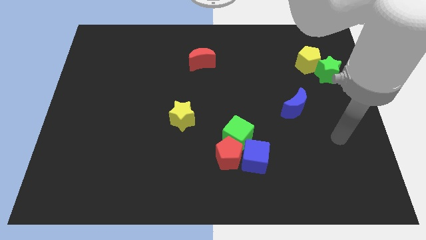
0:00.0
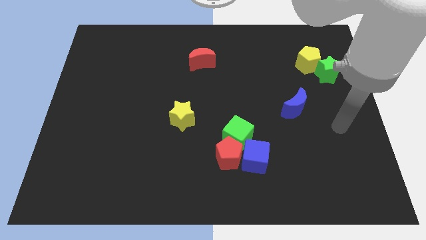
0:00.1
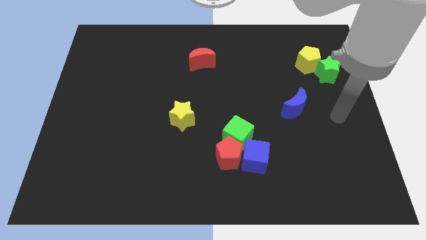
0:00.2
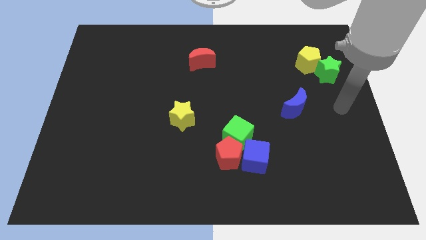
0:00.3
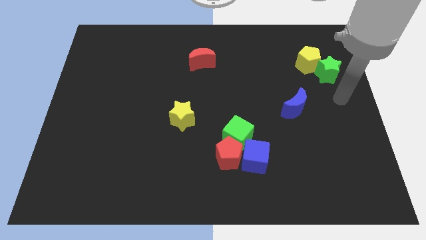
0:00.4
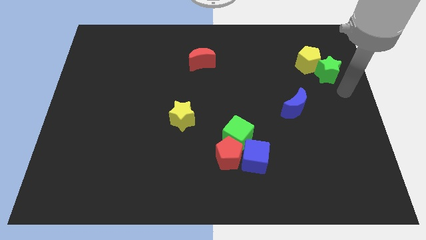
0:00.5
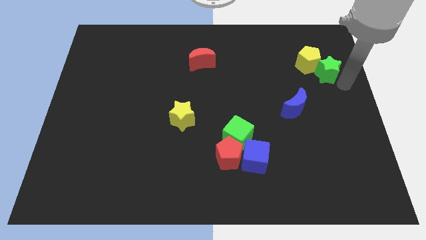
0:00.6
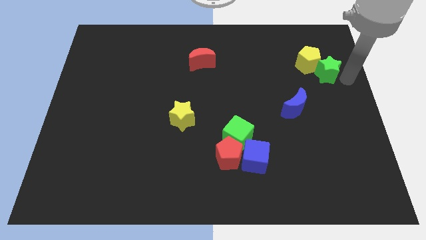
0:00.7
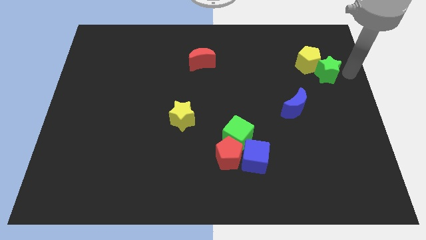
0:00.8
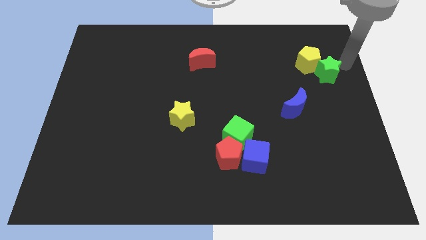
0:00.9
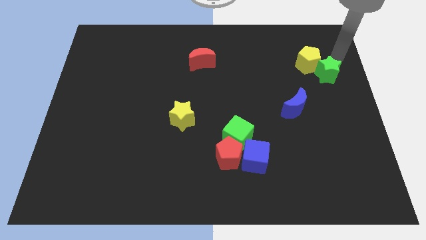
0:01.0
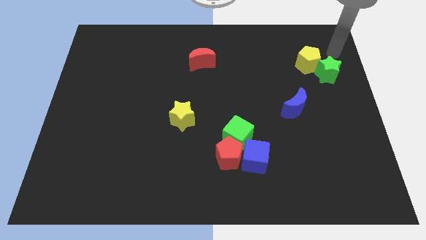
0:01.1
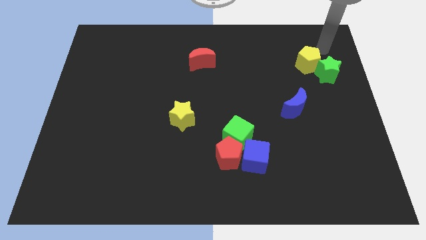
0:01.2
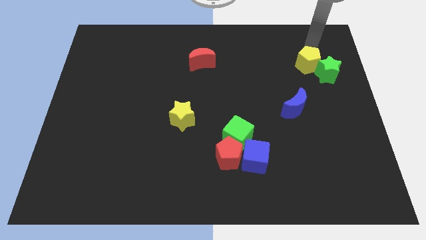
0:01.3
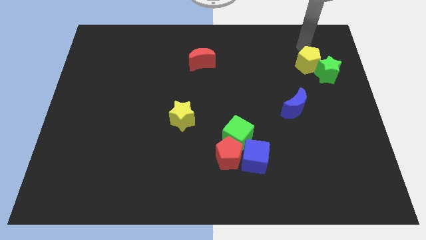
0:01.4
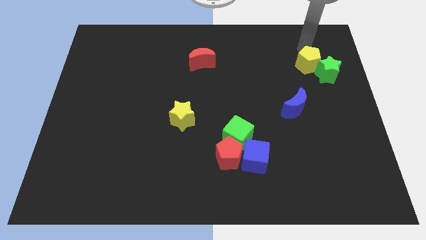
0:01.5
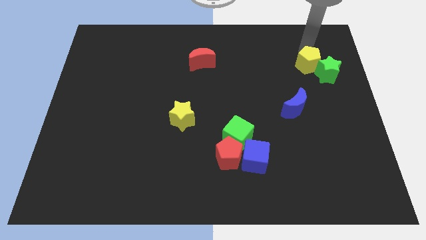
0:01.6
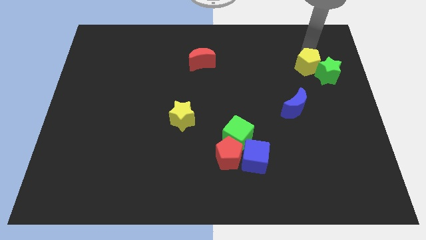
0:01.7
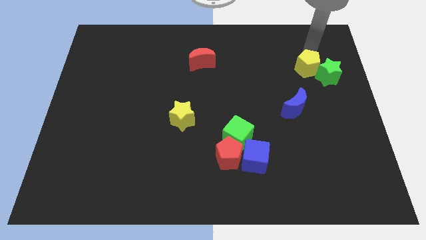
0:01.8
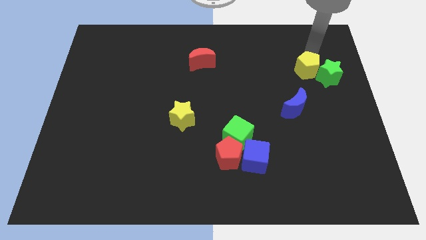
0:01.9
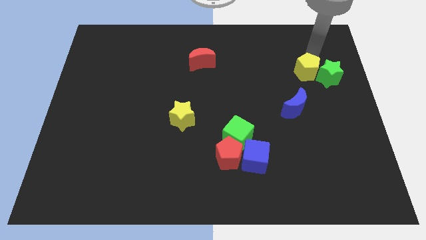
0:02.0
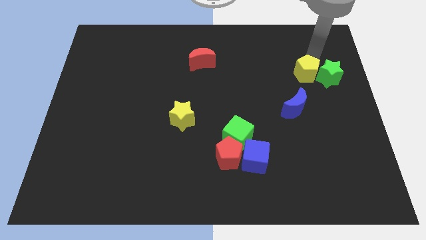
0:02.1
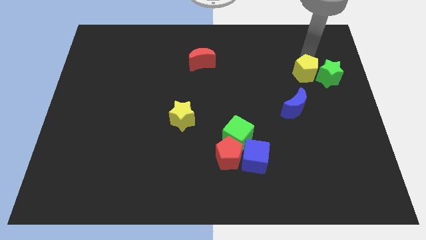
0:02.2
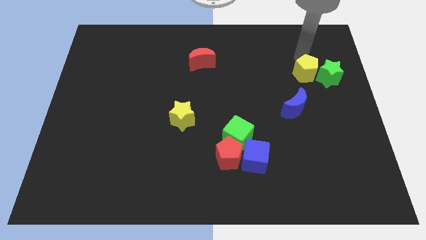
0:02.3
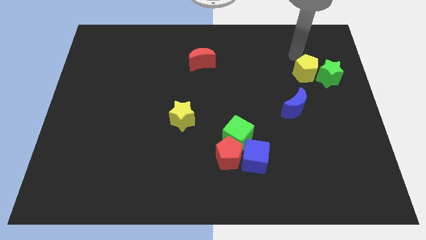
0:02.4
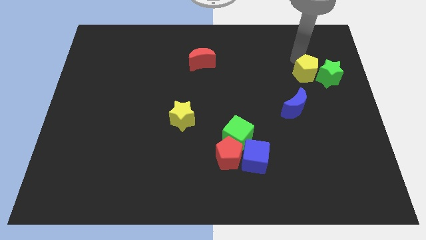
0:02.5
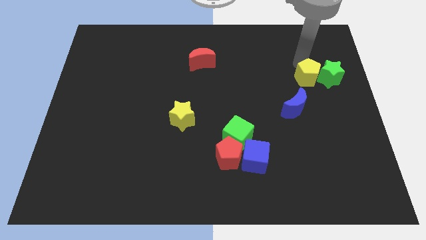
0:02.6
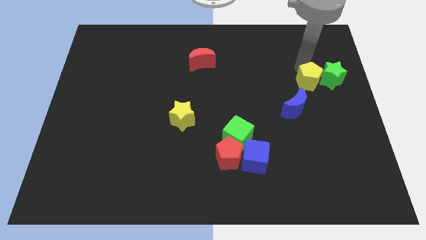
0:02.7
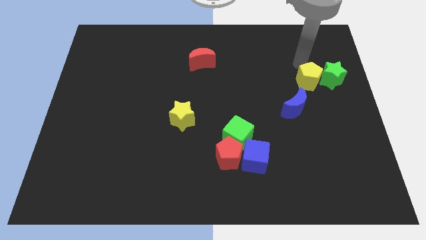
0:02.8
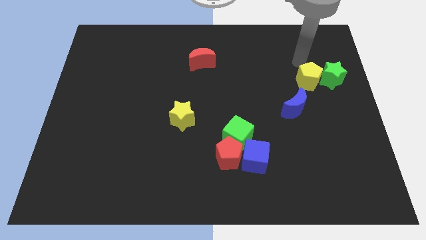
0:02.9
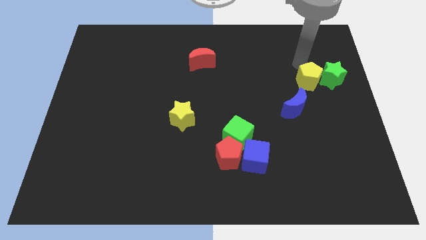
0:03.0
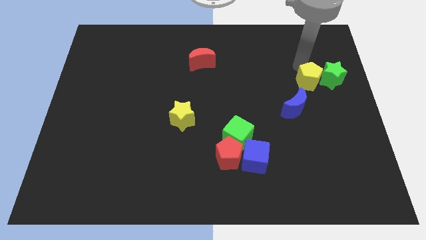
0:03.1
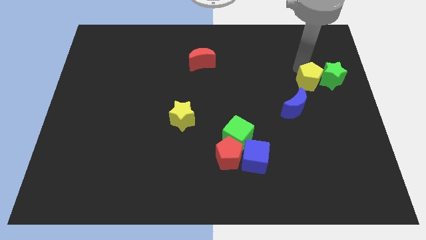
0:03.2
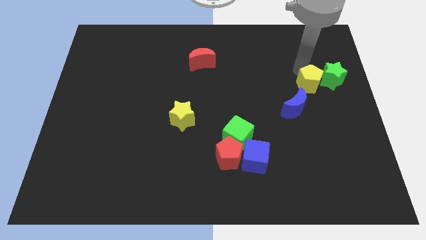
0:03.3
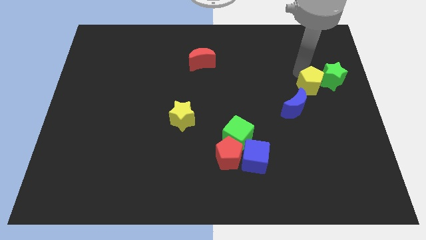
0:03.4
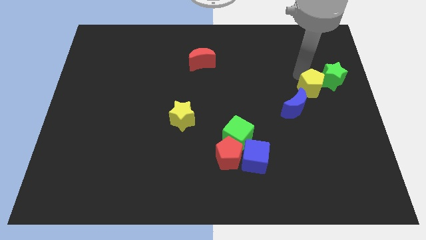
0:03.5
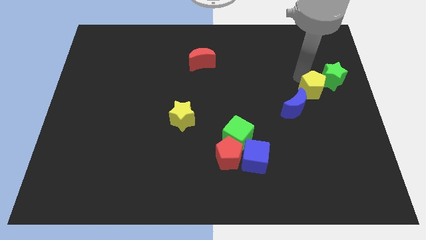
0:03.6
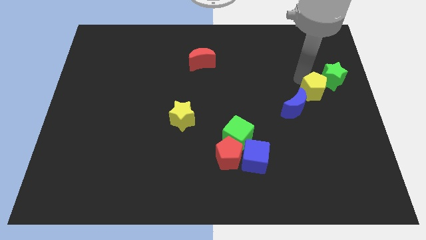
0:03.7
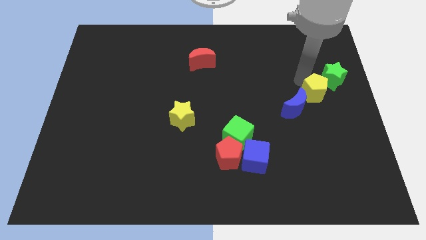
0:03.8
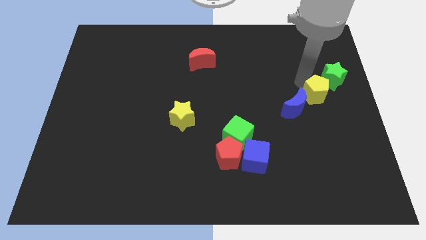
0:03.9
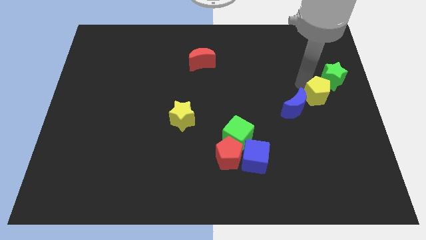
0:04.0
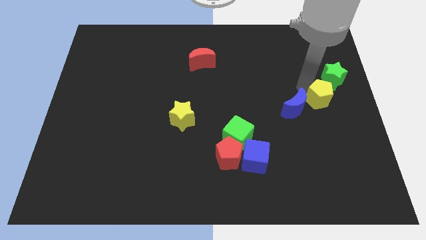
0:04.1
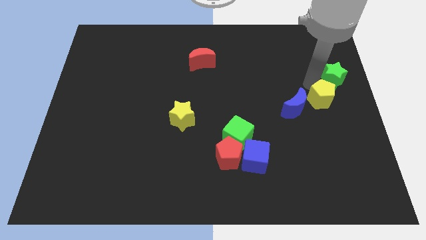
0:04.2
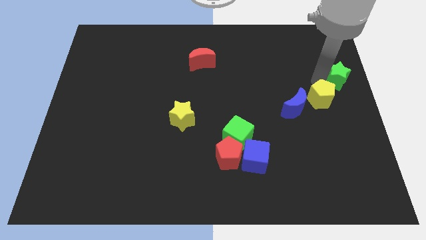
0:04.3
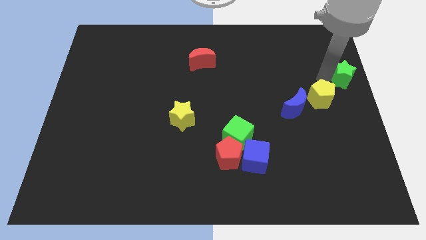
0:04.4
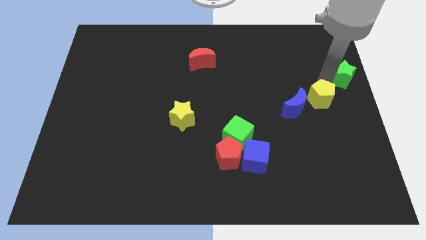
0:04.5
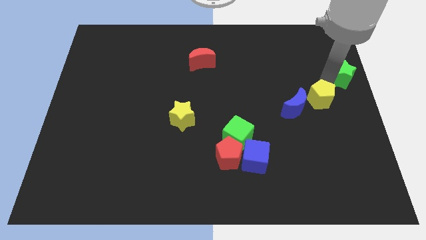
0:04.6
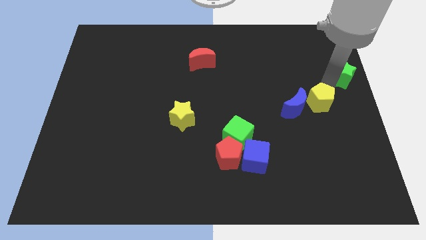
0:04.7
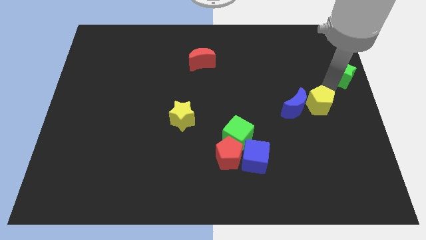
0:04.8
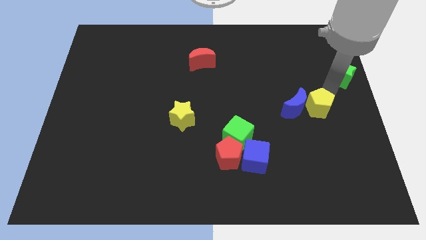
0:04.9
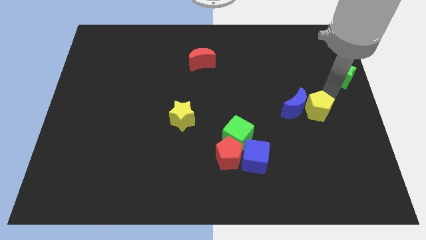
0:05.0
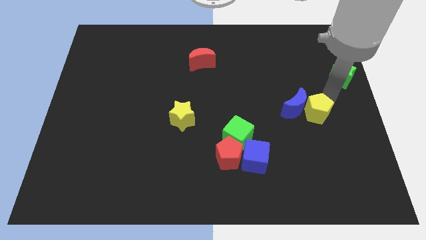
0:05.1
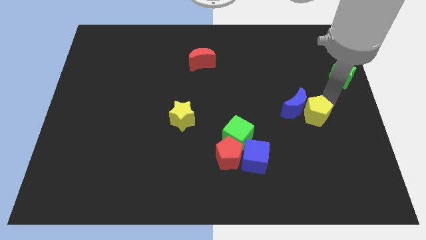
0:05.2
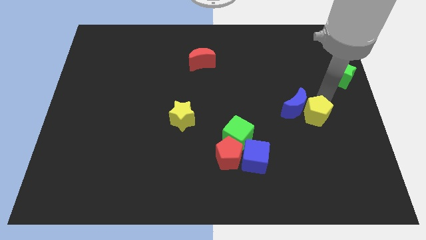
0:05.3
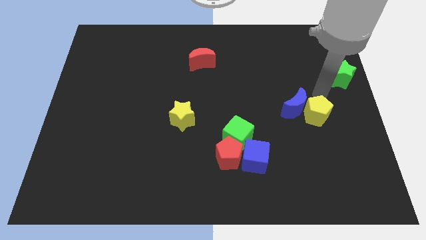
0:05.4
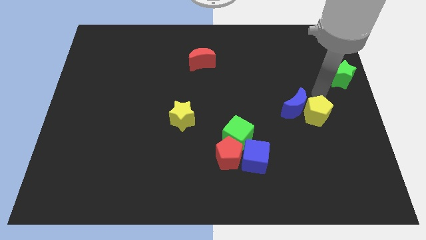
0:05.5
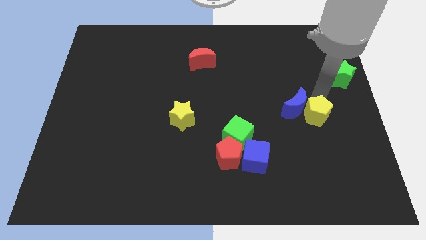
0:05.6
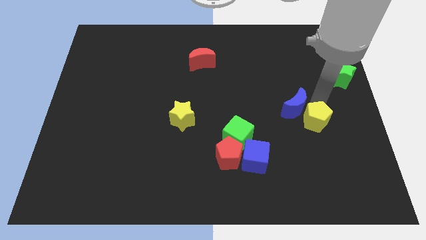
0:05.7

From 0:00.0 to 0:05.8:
push the yellow pentagon below the blue moon
